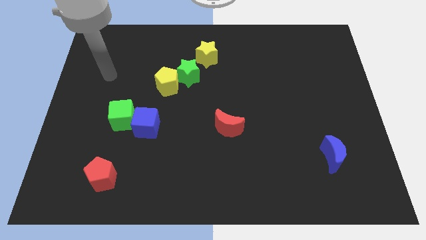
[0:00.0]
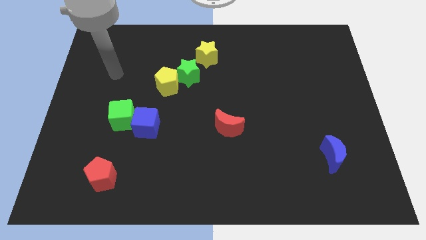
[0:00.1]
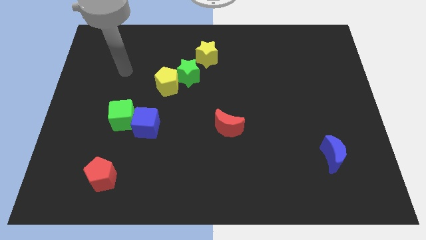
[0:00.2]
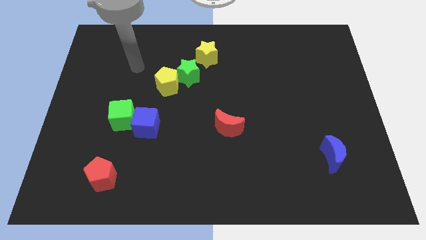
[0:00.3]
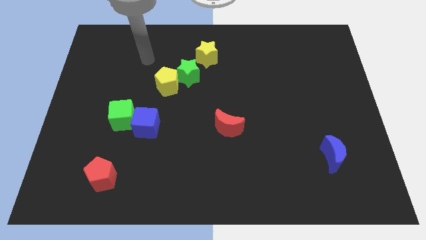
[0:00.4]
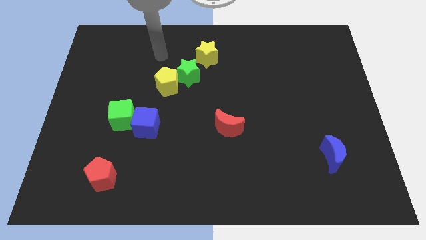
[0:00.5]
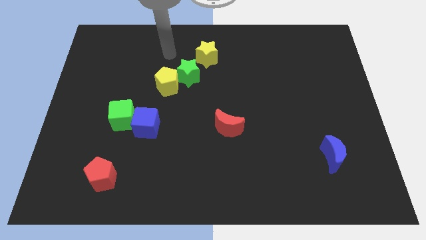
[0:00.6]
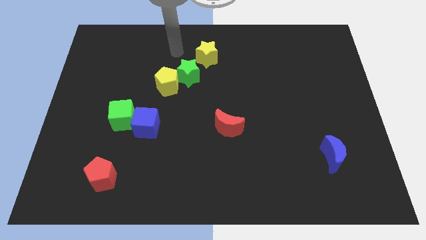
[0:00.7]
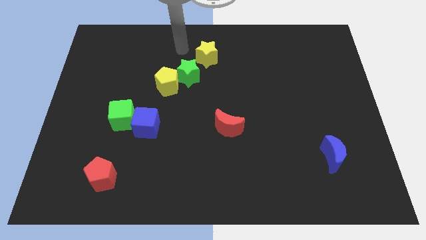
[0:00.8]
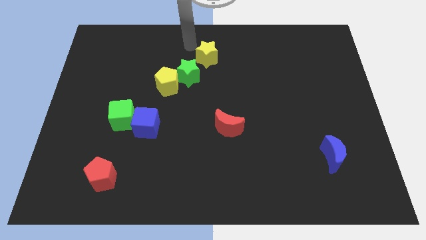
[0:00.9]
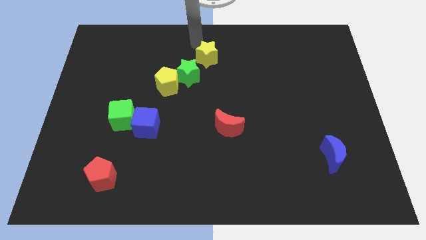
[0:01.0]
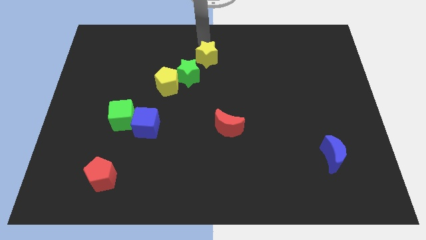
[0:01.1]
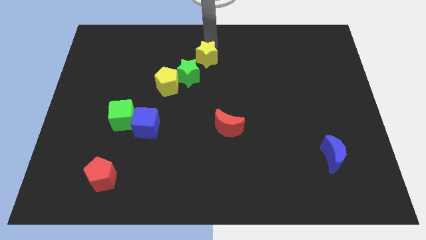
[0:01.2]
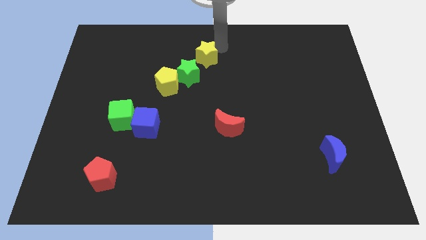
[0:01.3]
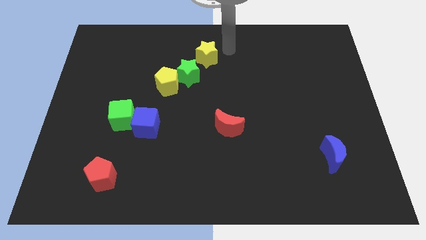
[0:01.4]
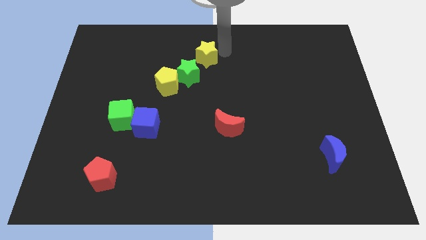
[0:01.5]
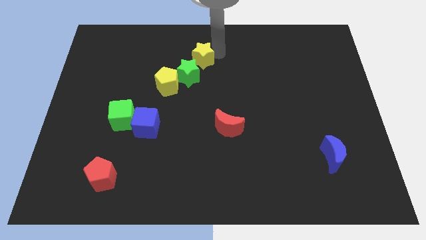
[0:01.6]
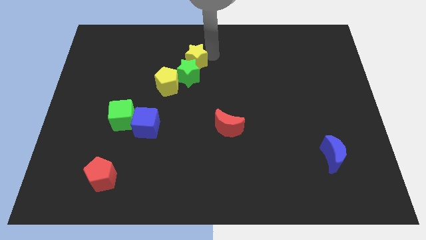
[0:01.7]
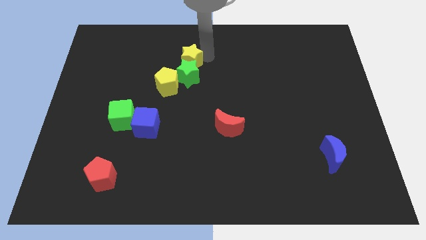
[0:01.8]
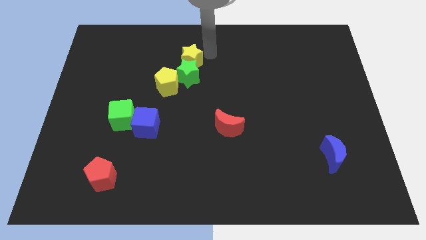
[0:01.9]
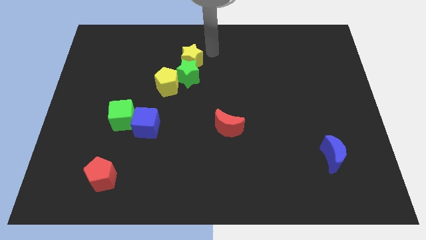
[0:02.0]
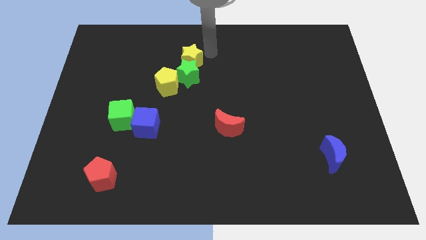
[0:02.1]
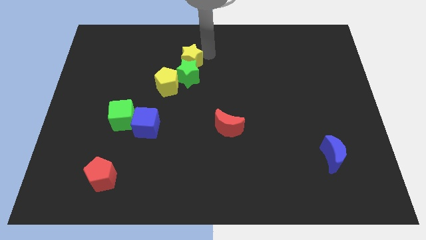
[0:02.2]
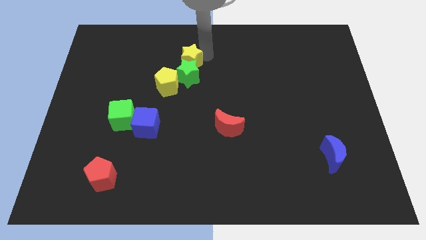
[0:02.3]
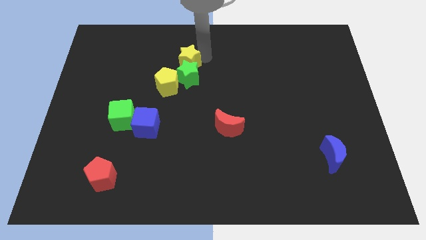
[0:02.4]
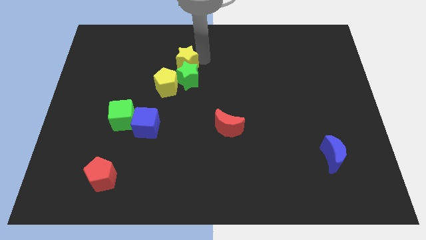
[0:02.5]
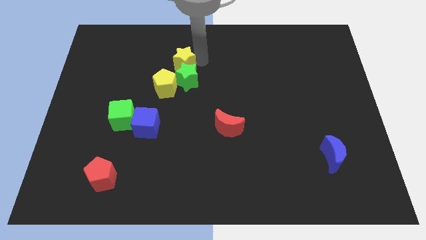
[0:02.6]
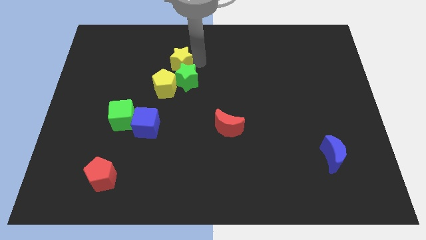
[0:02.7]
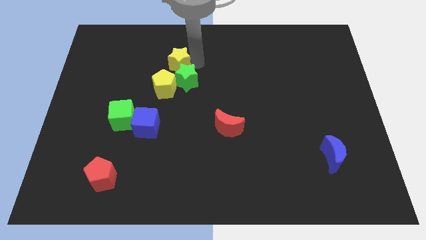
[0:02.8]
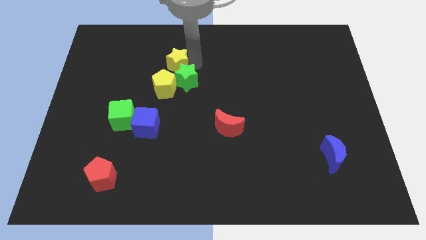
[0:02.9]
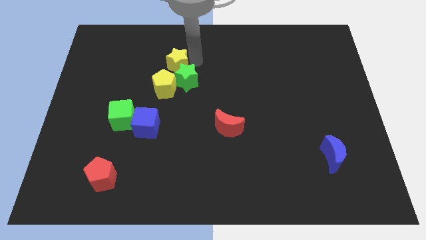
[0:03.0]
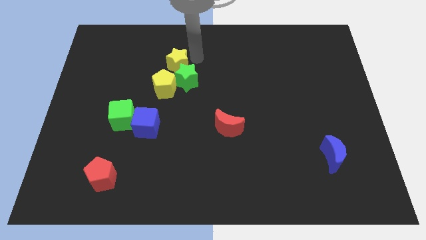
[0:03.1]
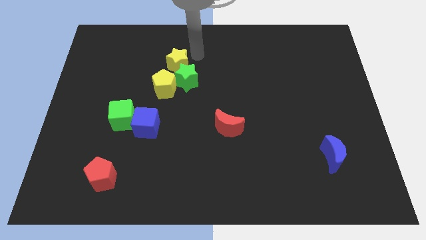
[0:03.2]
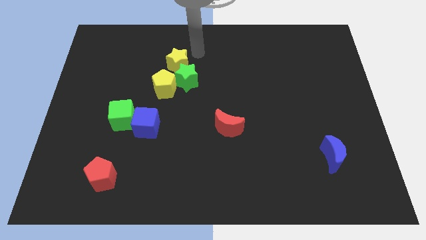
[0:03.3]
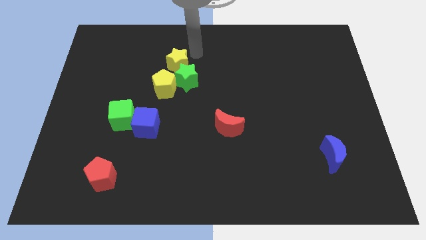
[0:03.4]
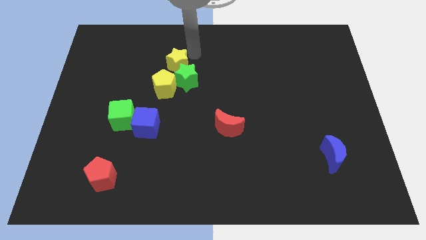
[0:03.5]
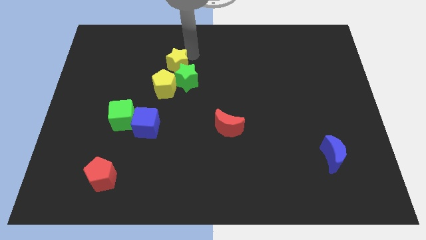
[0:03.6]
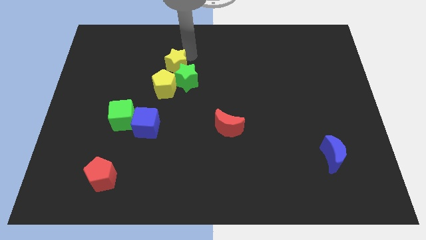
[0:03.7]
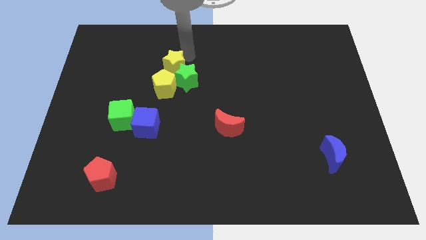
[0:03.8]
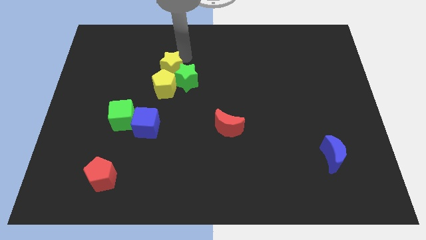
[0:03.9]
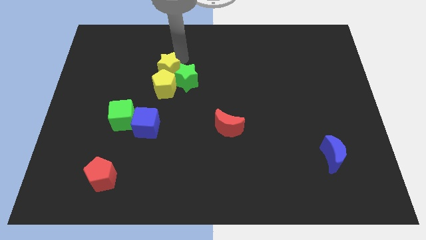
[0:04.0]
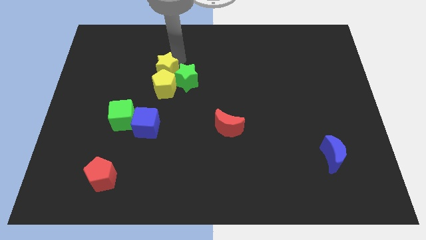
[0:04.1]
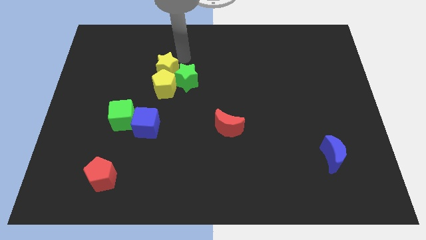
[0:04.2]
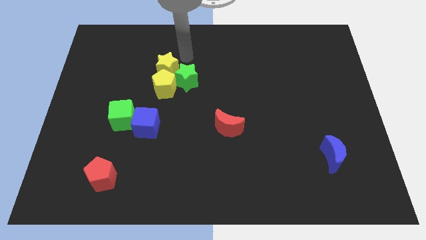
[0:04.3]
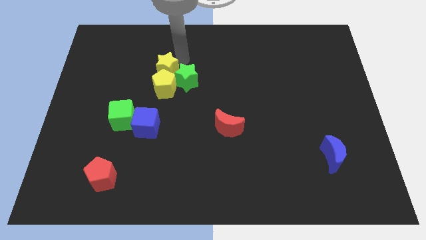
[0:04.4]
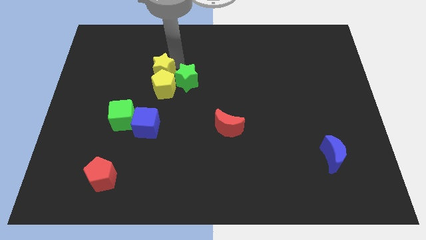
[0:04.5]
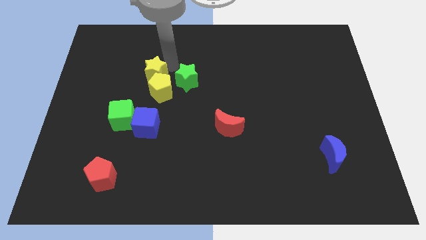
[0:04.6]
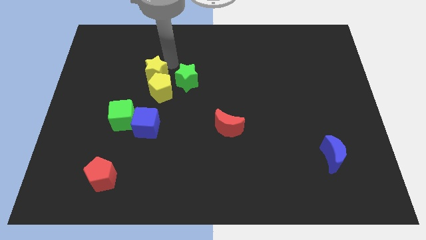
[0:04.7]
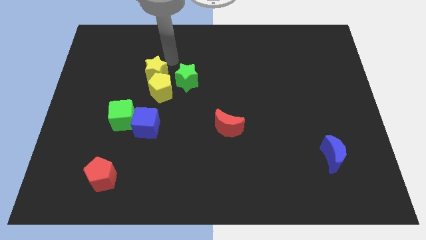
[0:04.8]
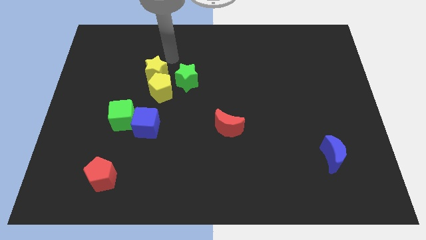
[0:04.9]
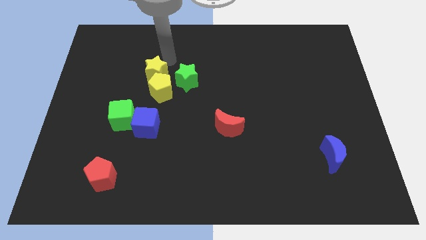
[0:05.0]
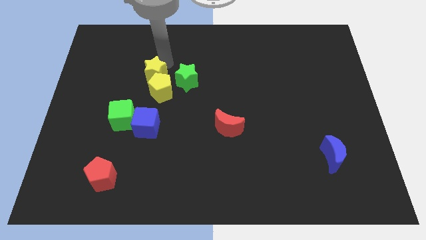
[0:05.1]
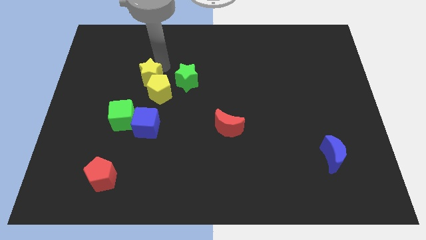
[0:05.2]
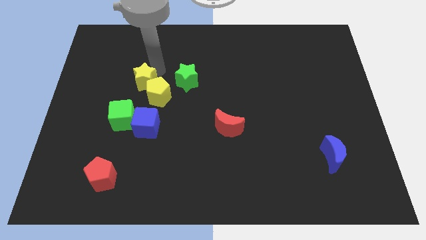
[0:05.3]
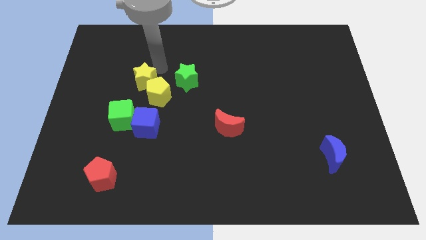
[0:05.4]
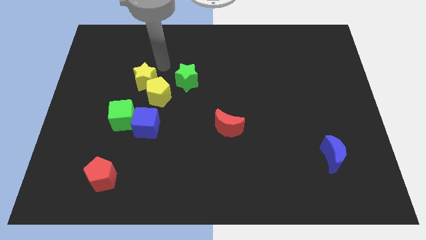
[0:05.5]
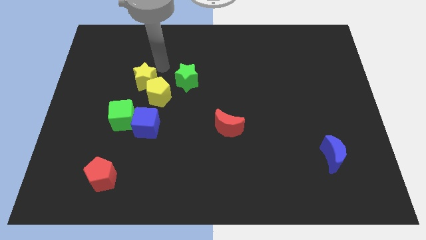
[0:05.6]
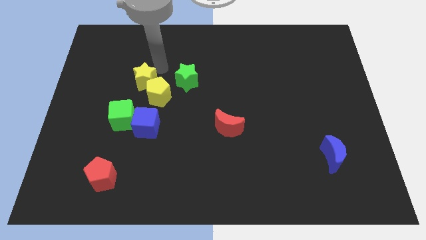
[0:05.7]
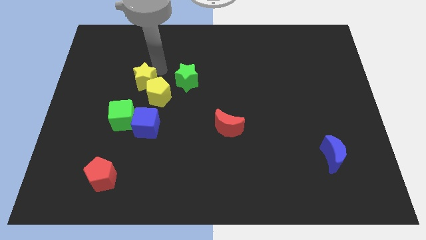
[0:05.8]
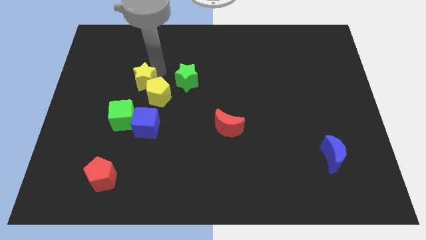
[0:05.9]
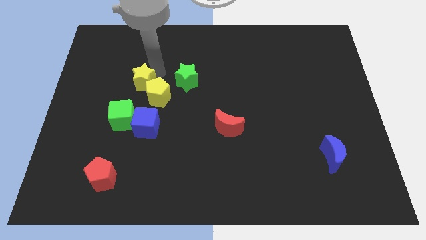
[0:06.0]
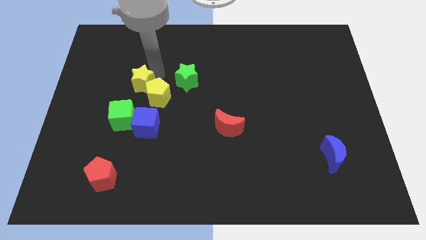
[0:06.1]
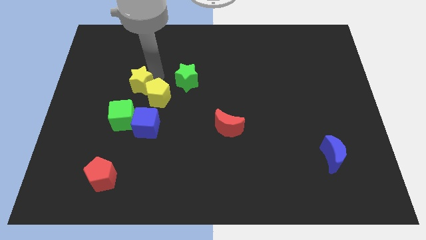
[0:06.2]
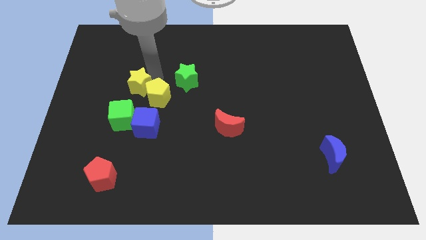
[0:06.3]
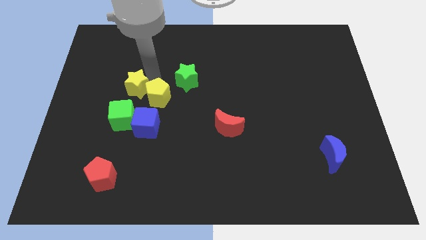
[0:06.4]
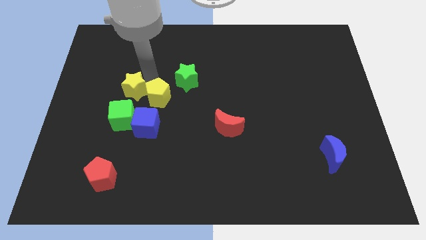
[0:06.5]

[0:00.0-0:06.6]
slide the yellow star diagonally down and to the left

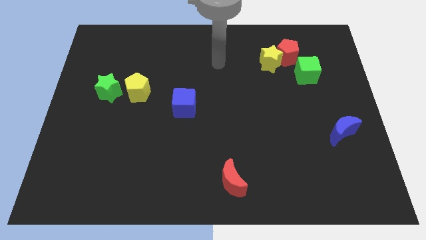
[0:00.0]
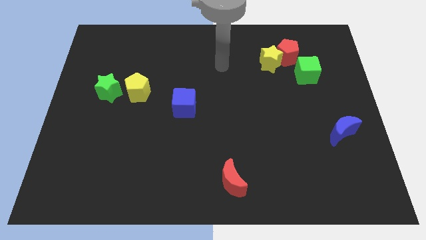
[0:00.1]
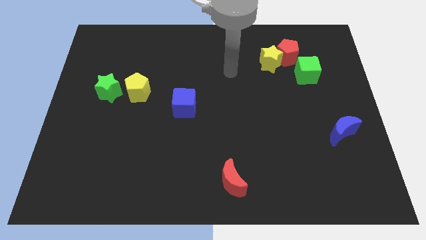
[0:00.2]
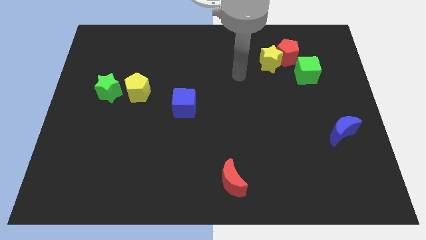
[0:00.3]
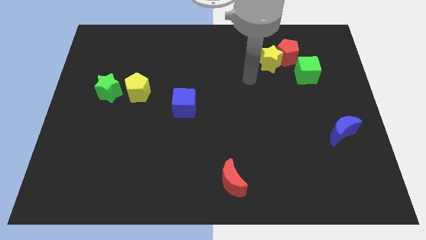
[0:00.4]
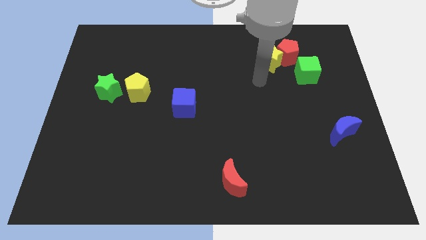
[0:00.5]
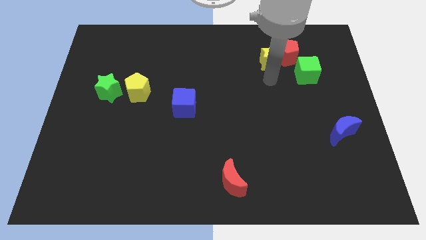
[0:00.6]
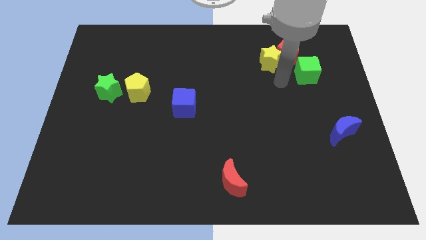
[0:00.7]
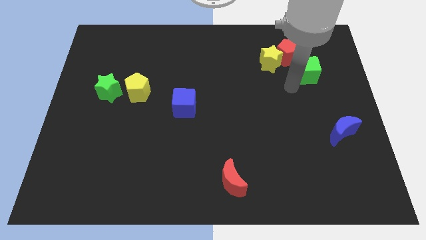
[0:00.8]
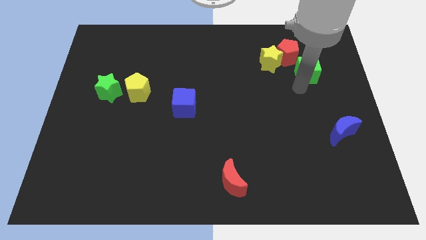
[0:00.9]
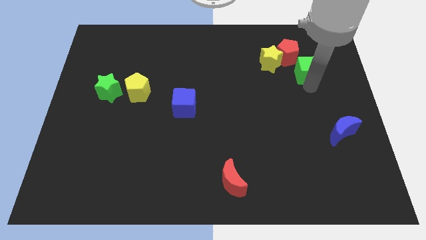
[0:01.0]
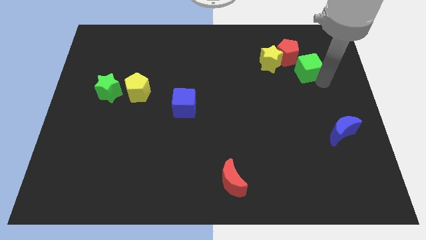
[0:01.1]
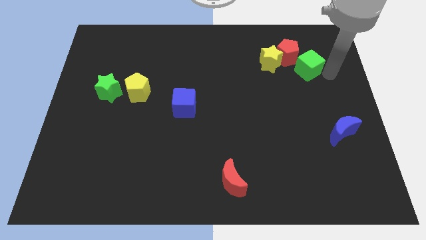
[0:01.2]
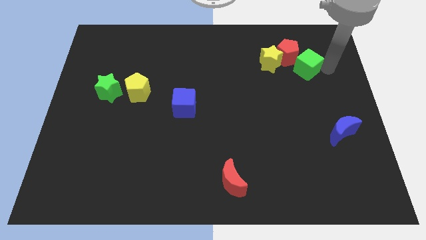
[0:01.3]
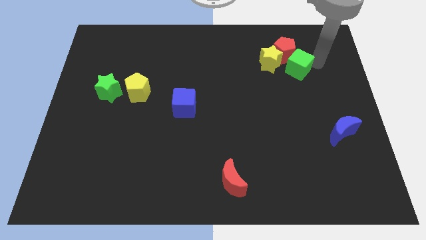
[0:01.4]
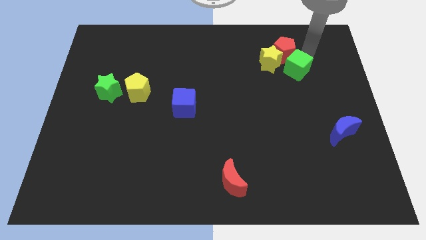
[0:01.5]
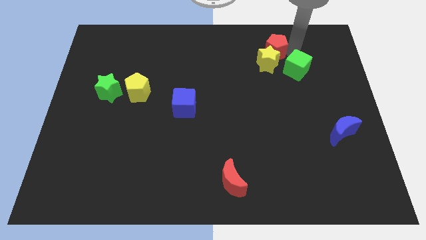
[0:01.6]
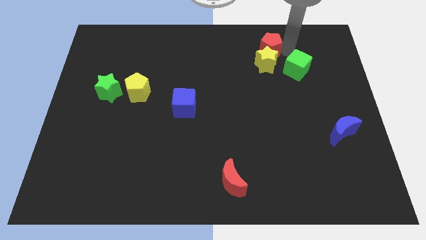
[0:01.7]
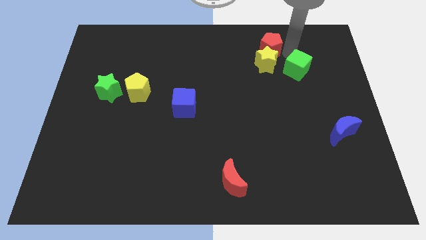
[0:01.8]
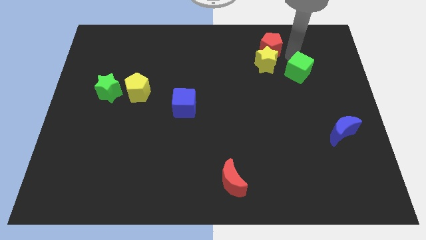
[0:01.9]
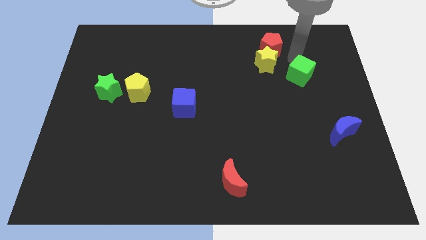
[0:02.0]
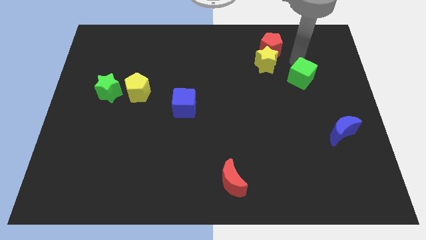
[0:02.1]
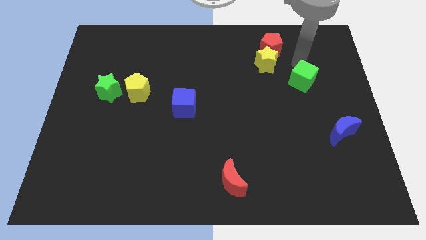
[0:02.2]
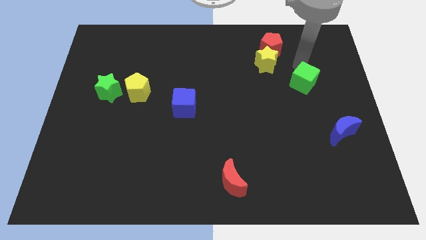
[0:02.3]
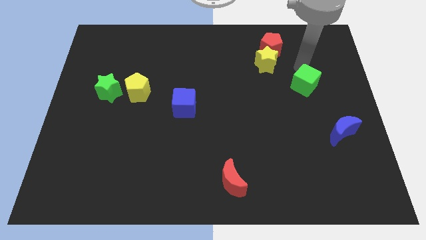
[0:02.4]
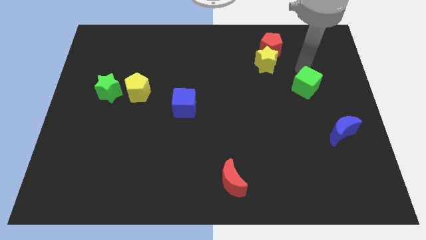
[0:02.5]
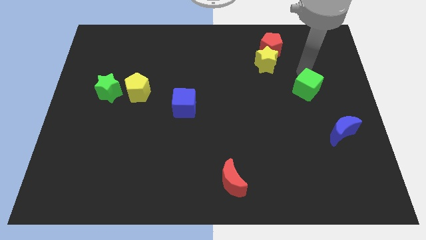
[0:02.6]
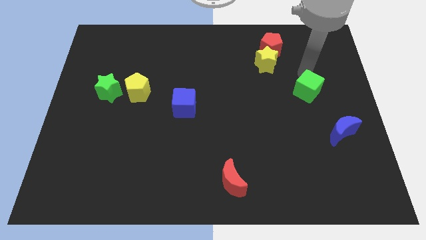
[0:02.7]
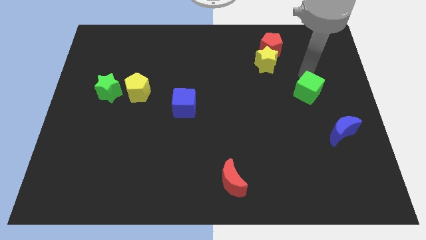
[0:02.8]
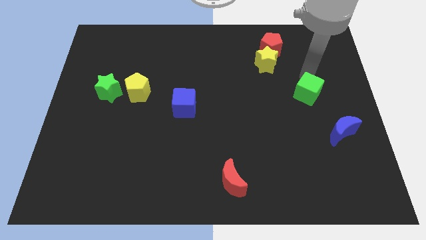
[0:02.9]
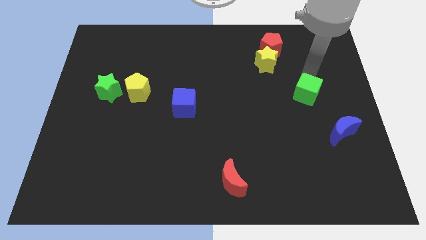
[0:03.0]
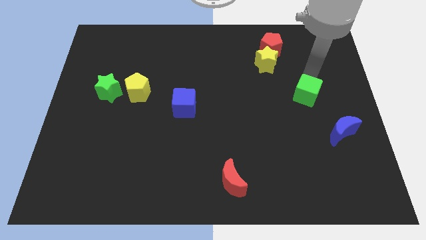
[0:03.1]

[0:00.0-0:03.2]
slightly slide the green cube downwards
